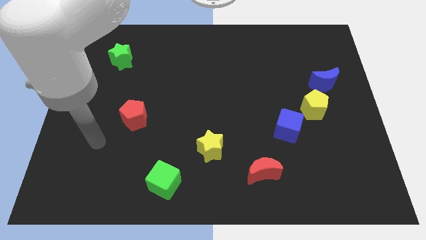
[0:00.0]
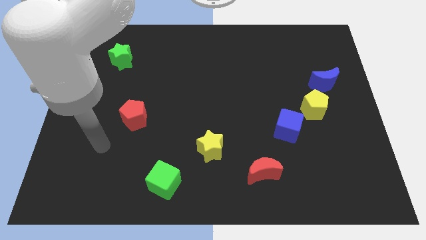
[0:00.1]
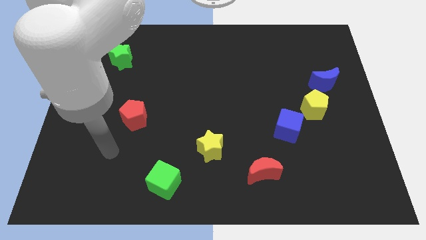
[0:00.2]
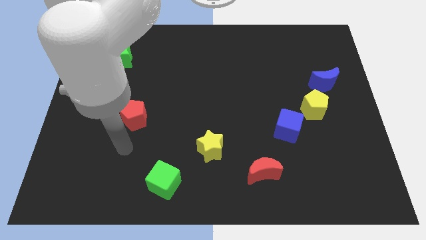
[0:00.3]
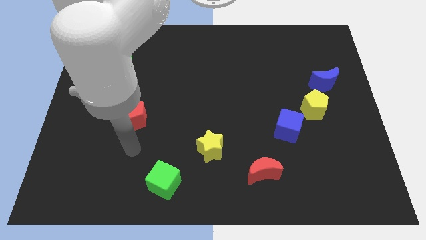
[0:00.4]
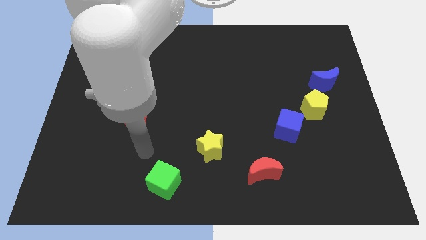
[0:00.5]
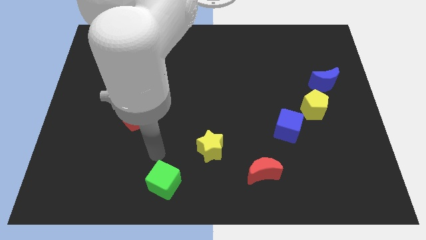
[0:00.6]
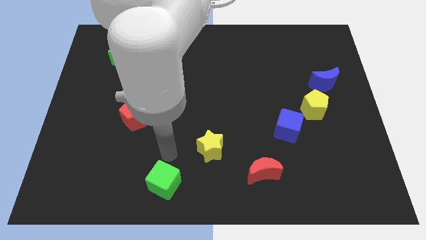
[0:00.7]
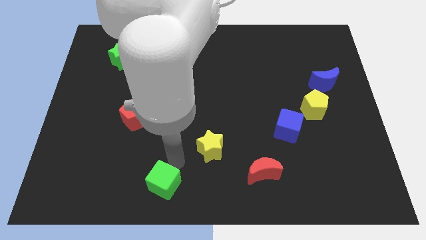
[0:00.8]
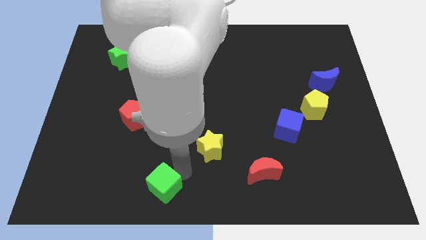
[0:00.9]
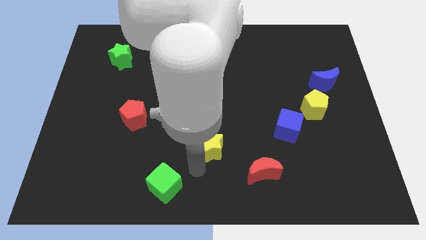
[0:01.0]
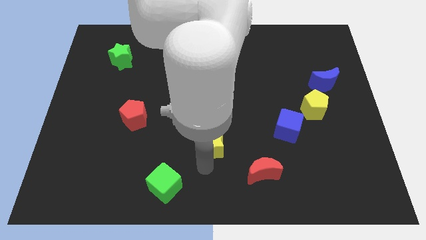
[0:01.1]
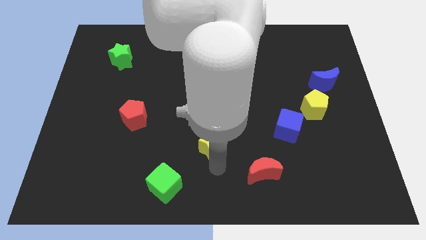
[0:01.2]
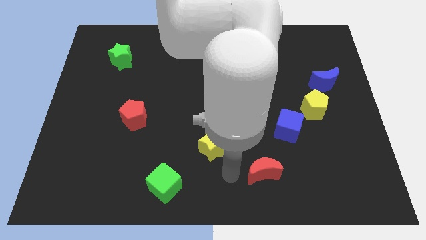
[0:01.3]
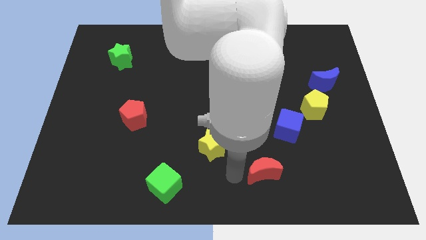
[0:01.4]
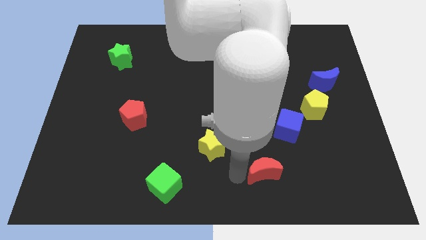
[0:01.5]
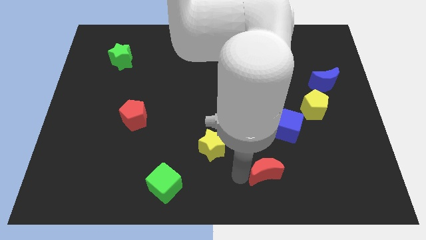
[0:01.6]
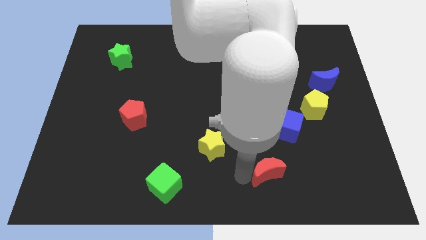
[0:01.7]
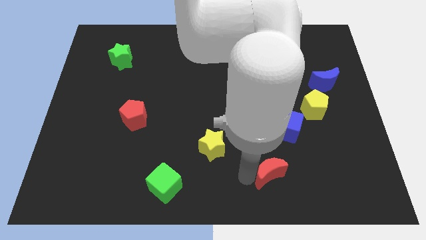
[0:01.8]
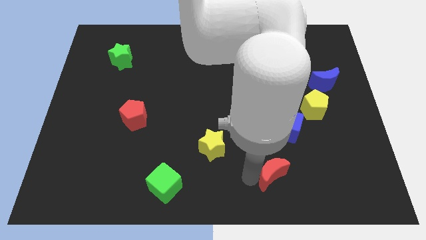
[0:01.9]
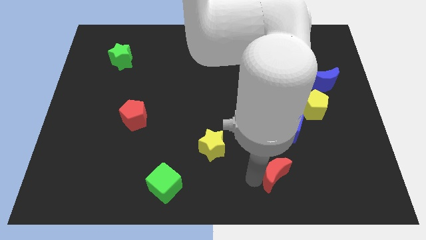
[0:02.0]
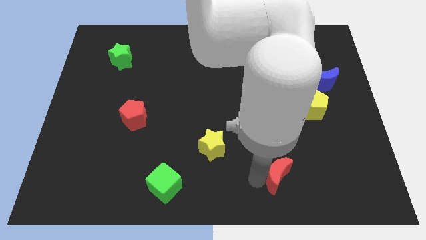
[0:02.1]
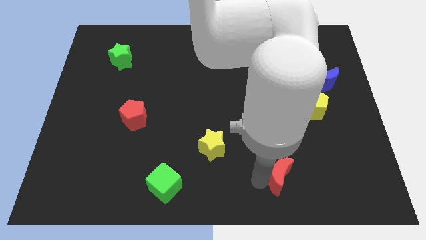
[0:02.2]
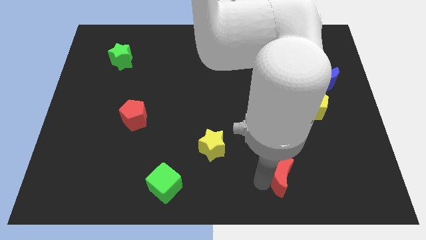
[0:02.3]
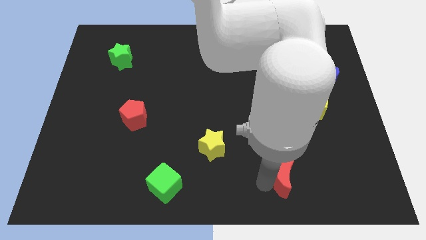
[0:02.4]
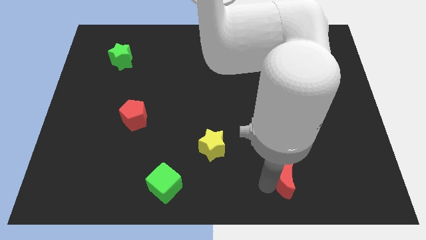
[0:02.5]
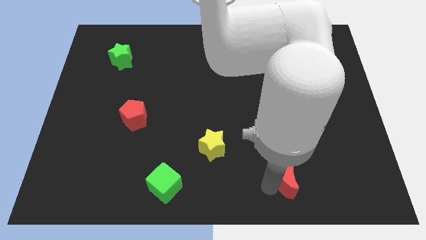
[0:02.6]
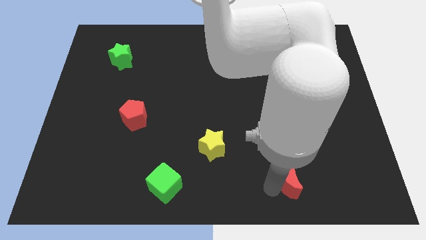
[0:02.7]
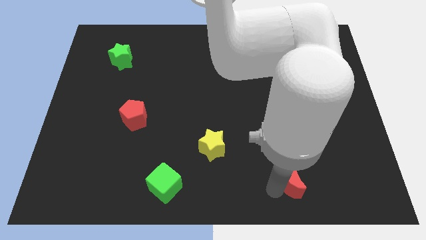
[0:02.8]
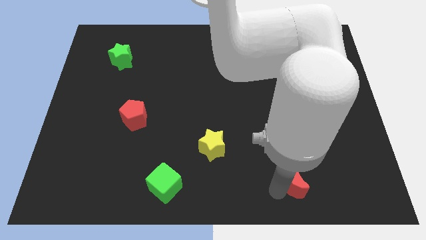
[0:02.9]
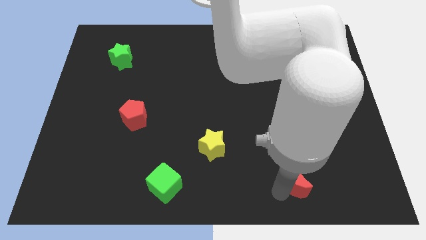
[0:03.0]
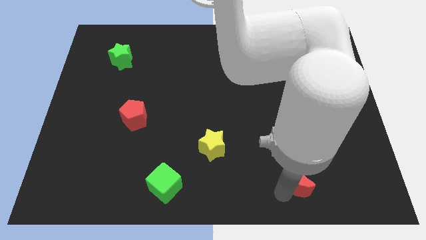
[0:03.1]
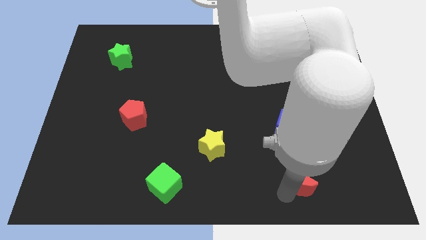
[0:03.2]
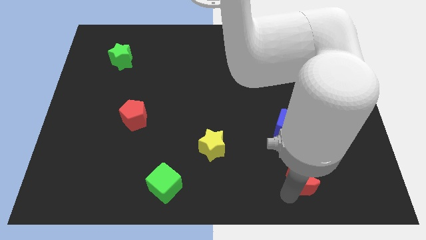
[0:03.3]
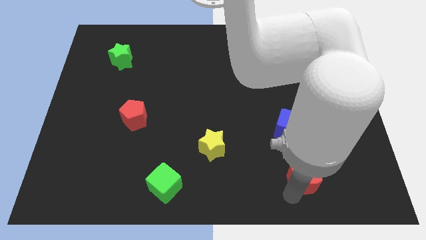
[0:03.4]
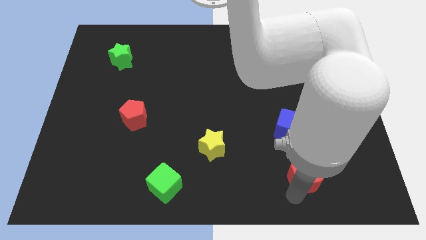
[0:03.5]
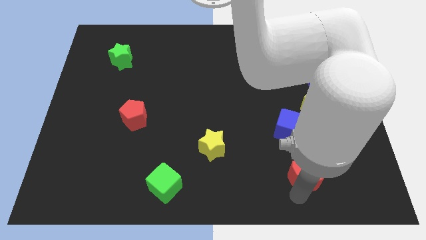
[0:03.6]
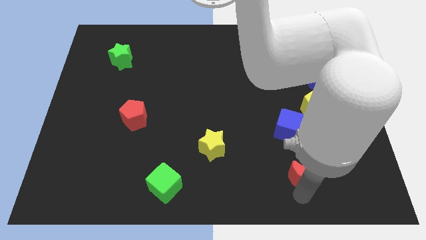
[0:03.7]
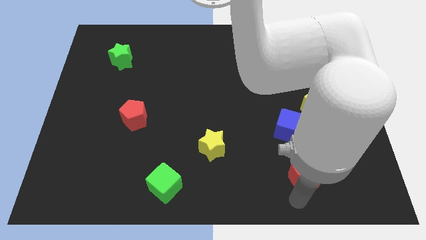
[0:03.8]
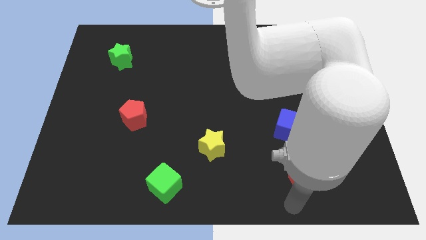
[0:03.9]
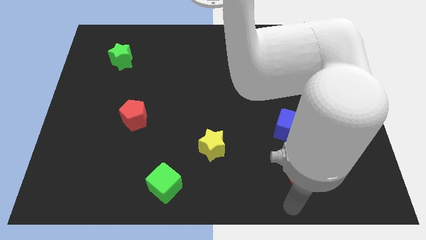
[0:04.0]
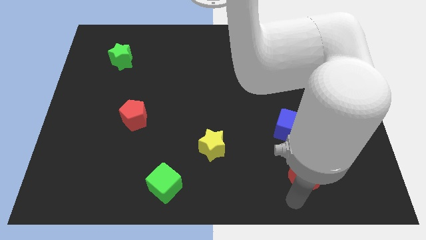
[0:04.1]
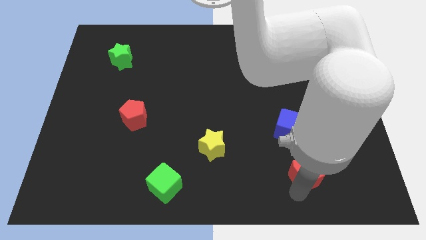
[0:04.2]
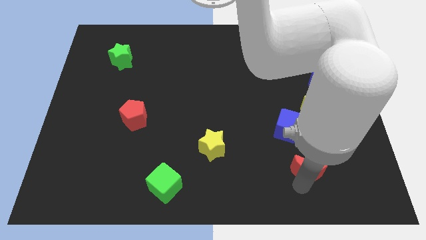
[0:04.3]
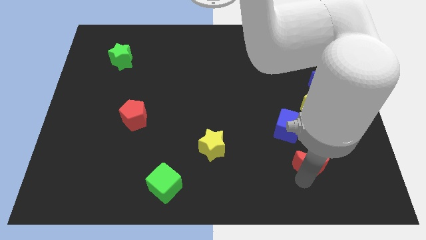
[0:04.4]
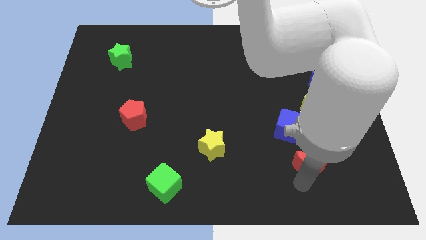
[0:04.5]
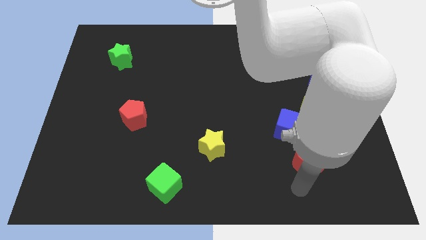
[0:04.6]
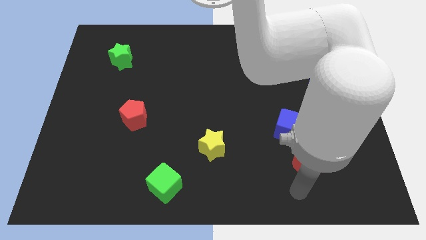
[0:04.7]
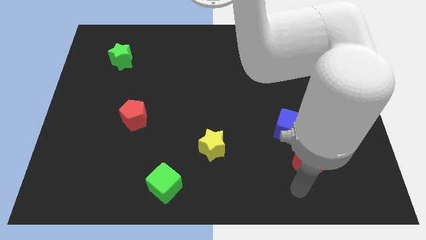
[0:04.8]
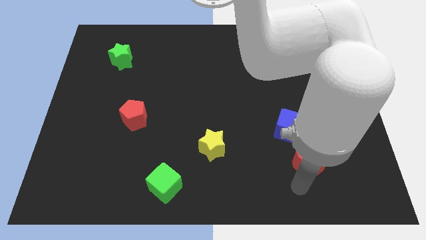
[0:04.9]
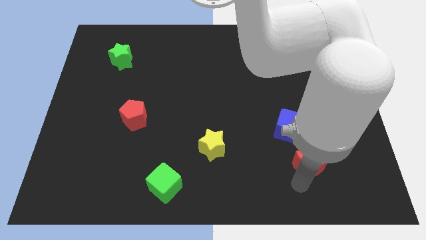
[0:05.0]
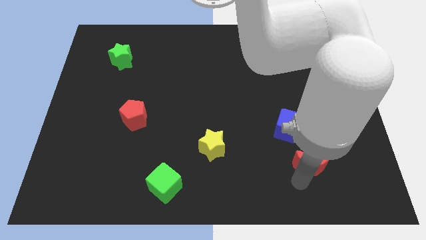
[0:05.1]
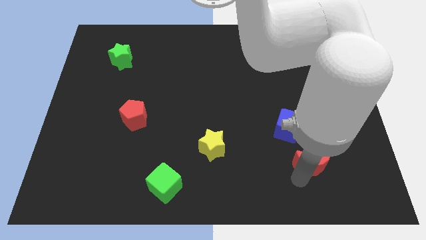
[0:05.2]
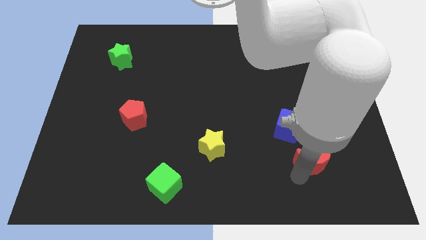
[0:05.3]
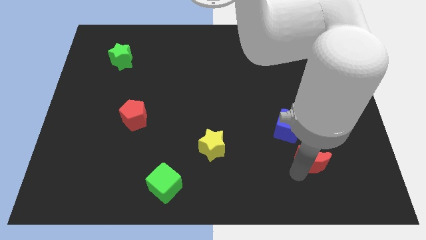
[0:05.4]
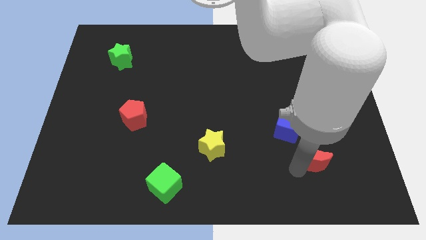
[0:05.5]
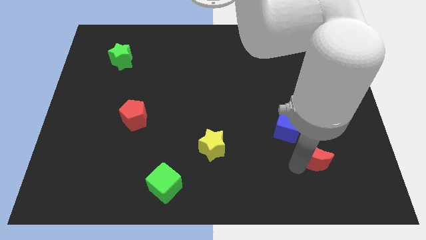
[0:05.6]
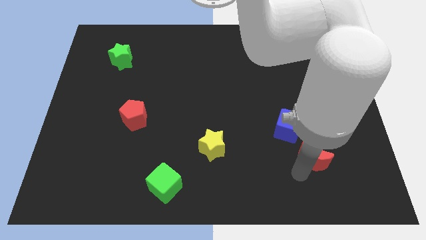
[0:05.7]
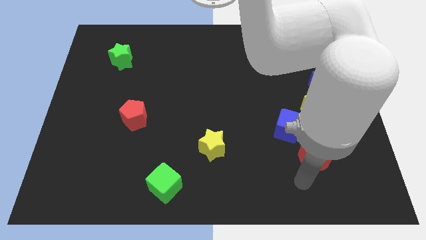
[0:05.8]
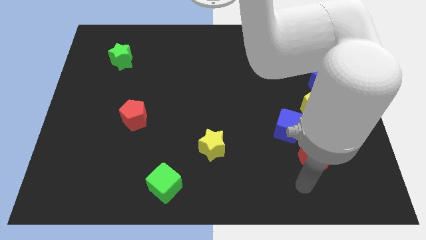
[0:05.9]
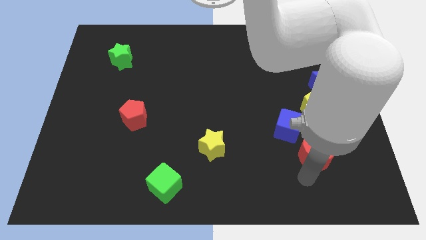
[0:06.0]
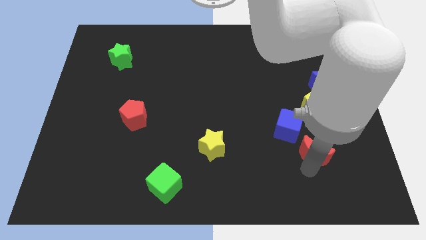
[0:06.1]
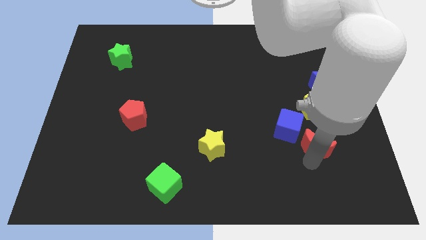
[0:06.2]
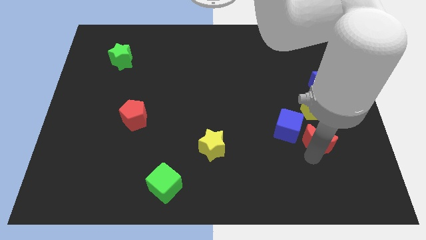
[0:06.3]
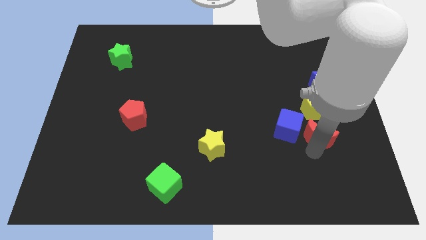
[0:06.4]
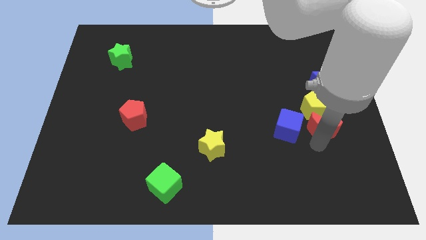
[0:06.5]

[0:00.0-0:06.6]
slide the red moon next to the yellow pentagon

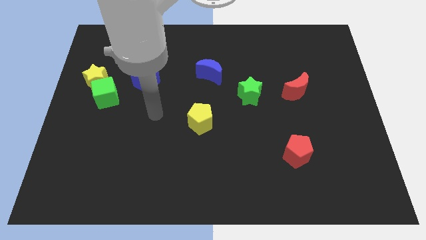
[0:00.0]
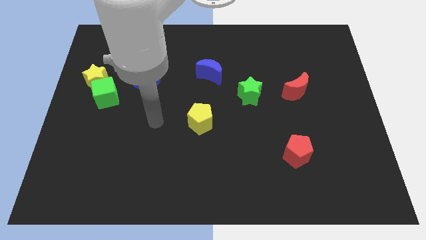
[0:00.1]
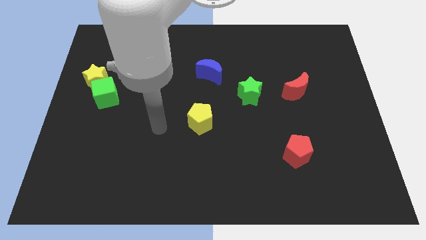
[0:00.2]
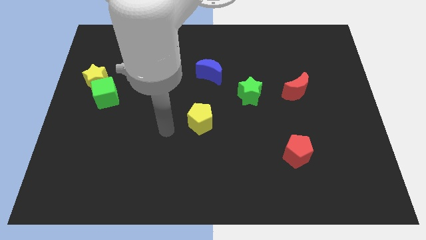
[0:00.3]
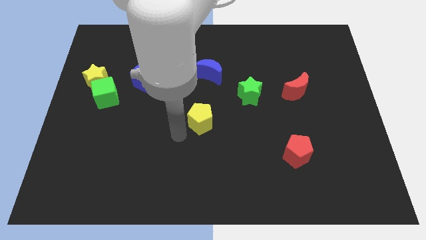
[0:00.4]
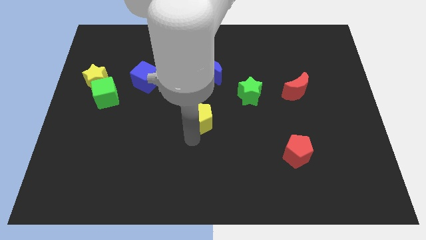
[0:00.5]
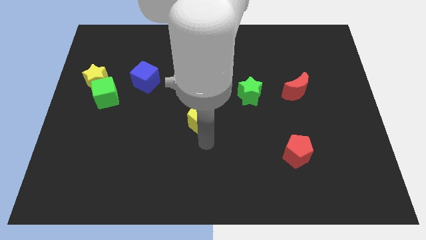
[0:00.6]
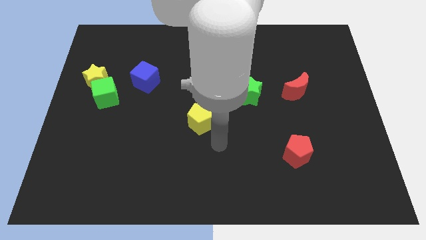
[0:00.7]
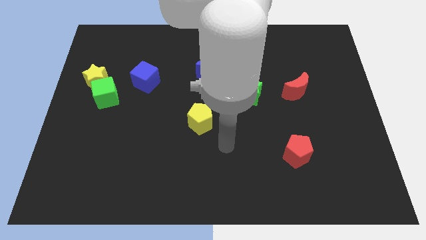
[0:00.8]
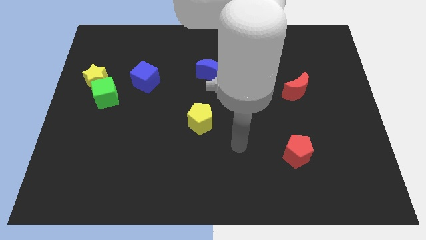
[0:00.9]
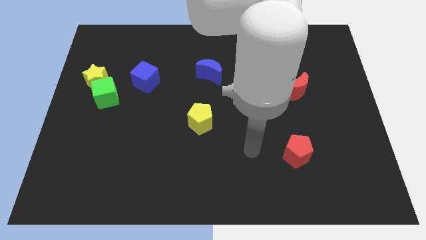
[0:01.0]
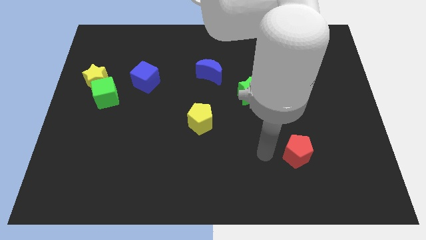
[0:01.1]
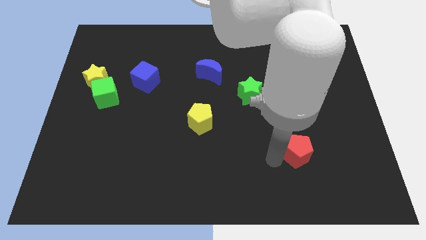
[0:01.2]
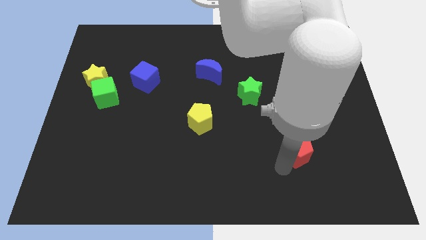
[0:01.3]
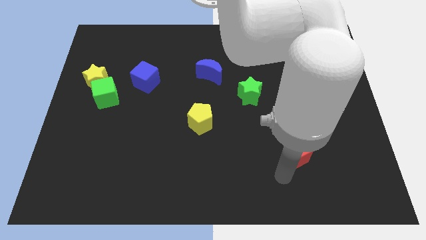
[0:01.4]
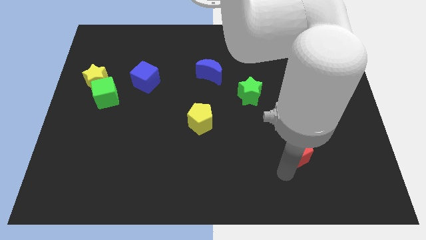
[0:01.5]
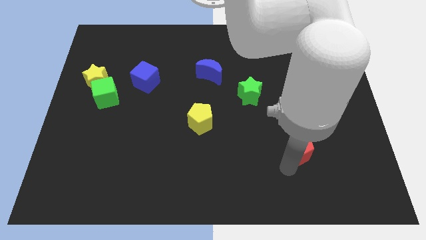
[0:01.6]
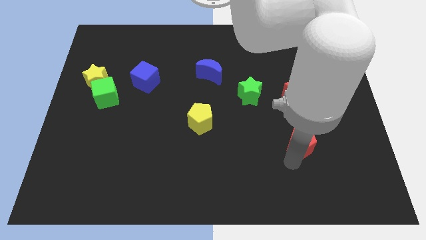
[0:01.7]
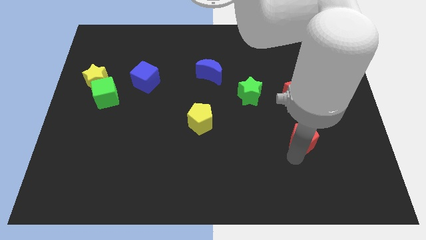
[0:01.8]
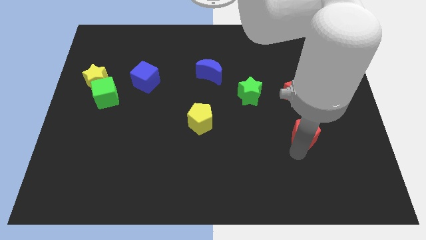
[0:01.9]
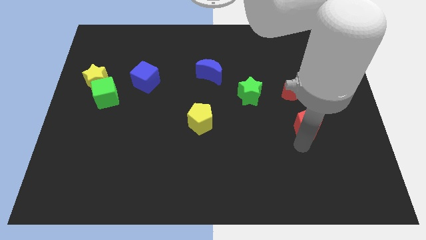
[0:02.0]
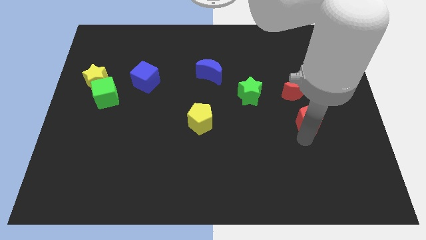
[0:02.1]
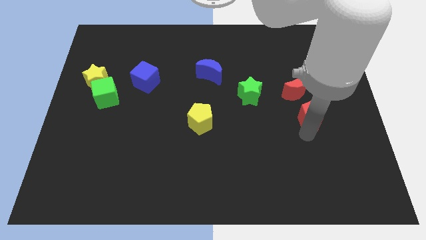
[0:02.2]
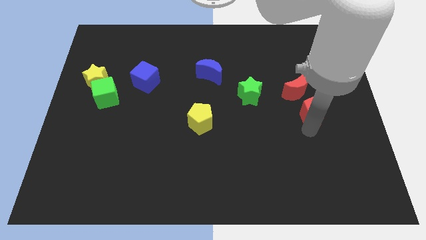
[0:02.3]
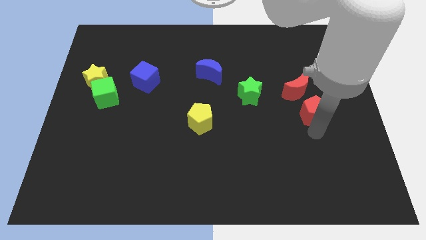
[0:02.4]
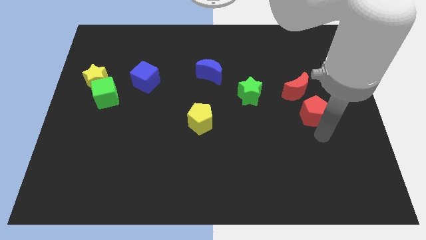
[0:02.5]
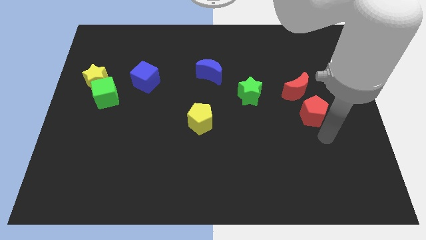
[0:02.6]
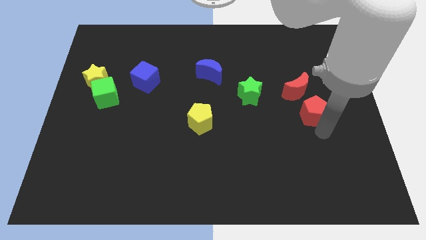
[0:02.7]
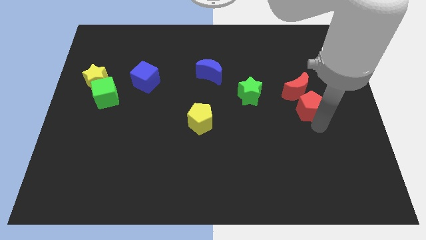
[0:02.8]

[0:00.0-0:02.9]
put the red pentagon close to the red moon
